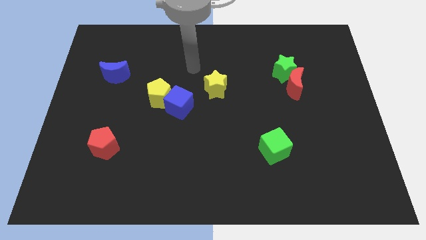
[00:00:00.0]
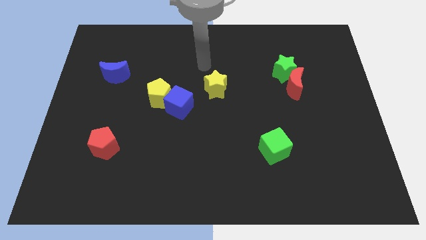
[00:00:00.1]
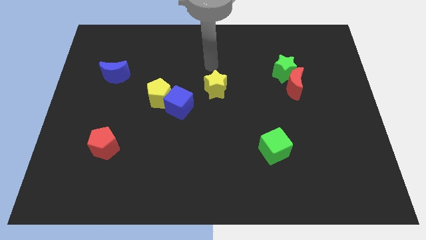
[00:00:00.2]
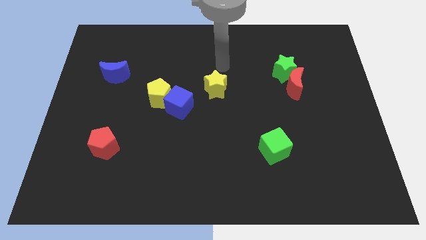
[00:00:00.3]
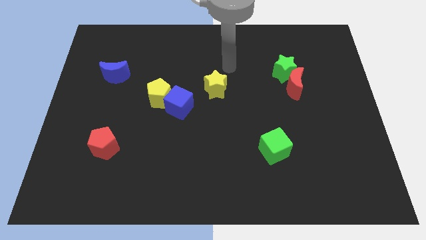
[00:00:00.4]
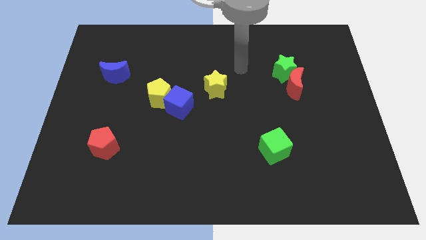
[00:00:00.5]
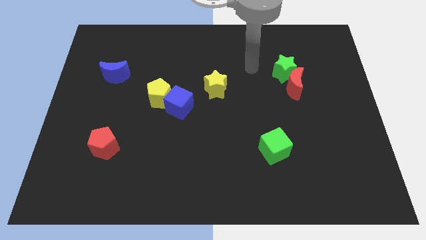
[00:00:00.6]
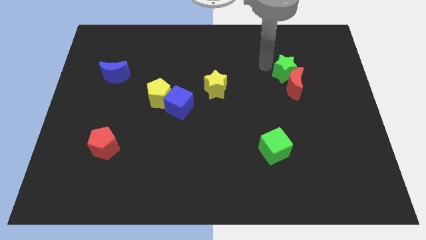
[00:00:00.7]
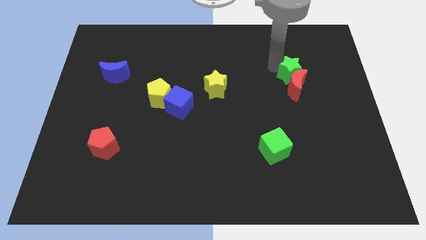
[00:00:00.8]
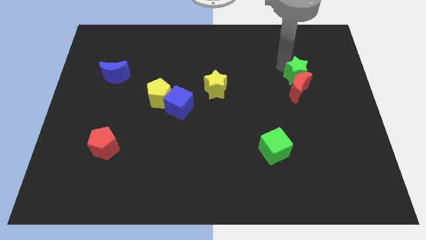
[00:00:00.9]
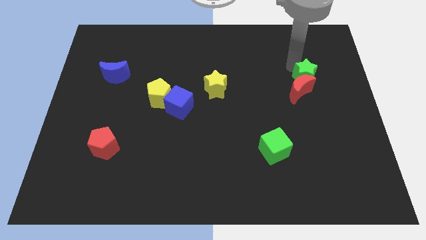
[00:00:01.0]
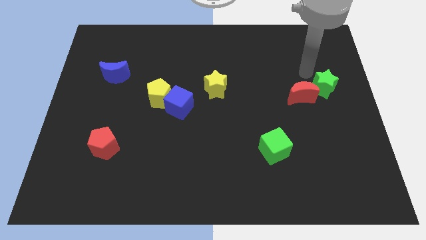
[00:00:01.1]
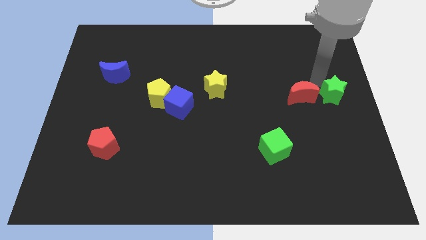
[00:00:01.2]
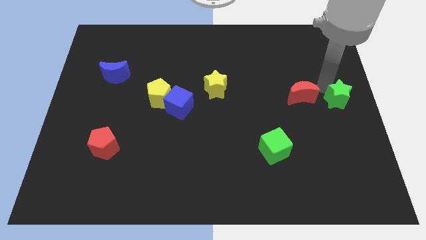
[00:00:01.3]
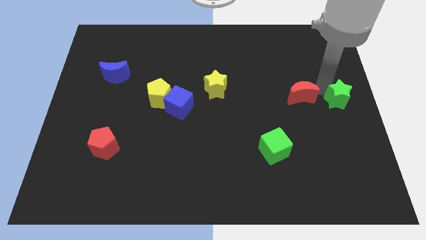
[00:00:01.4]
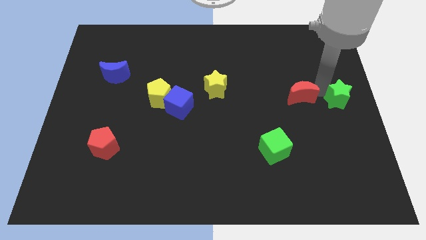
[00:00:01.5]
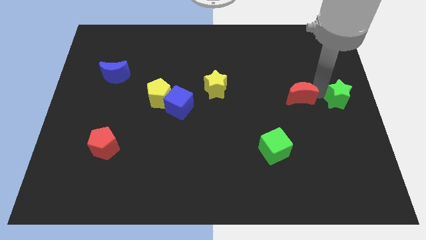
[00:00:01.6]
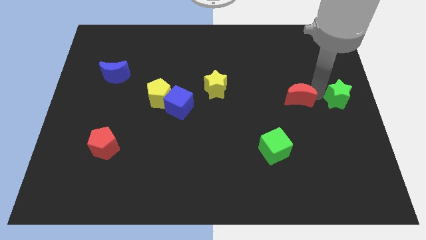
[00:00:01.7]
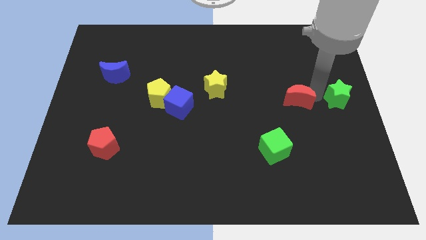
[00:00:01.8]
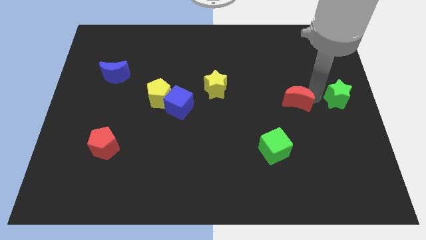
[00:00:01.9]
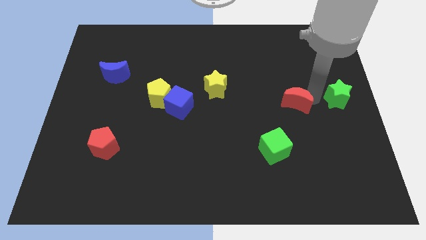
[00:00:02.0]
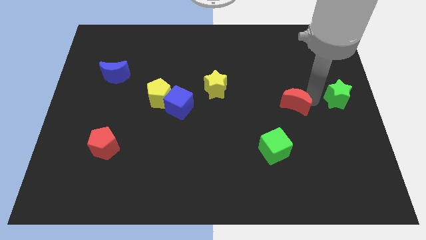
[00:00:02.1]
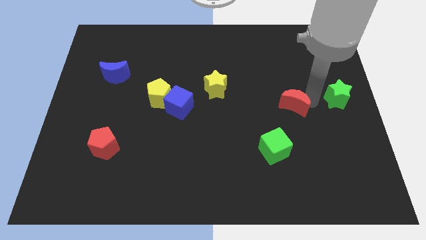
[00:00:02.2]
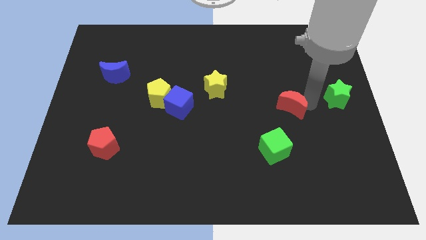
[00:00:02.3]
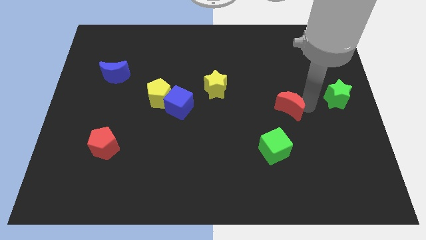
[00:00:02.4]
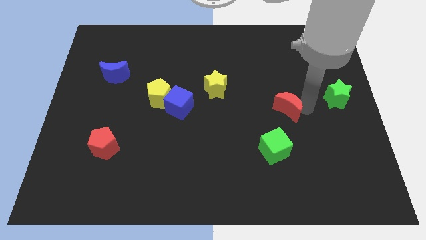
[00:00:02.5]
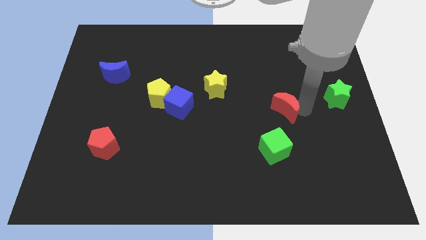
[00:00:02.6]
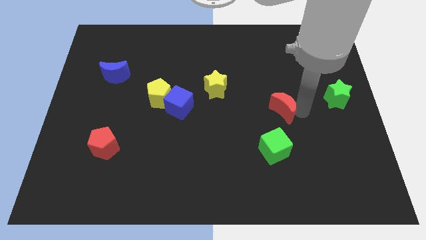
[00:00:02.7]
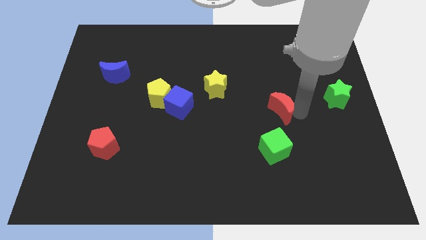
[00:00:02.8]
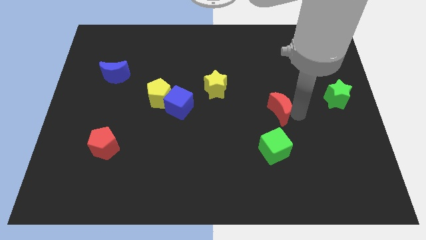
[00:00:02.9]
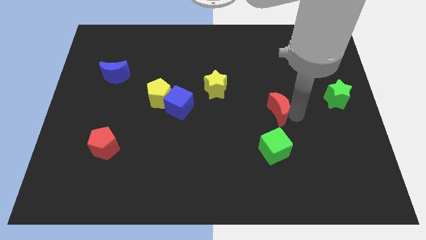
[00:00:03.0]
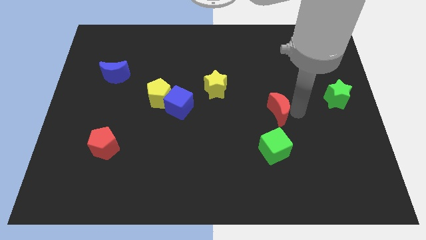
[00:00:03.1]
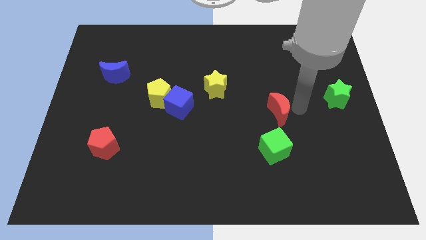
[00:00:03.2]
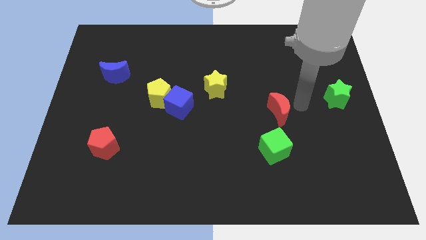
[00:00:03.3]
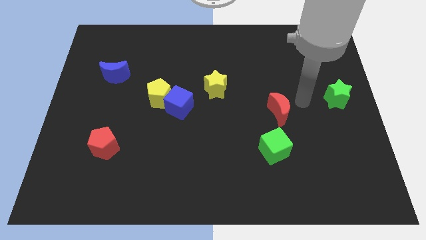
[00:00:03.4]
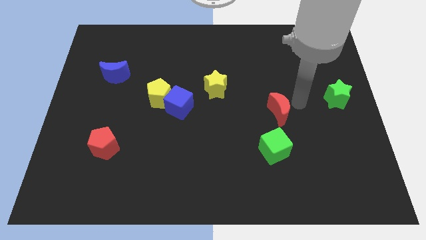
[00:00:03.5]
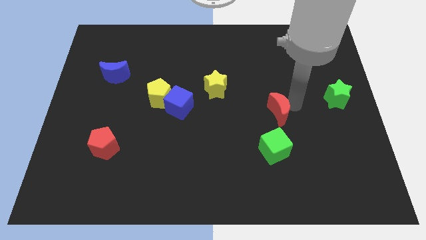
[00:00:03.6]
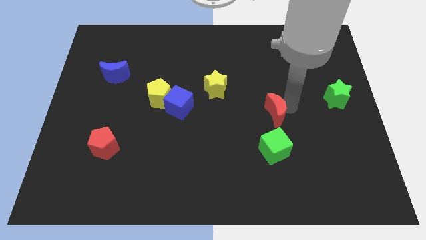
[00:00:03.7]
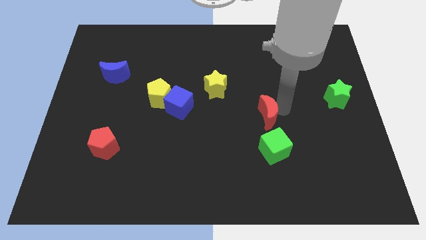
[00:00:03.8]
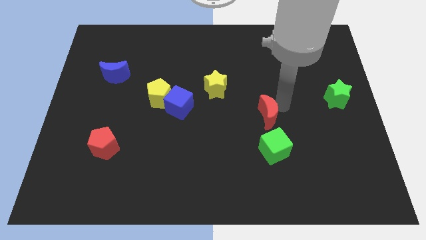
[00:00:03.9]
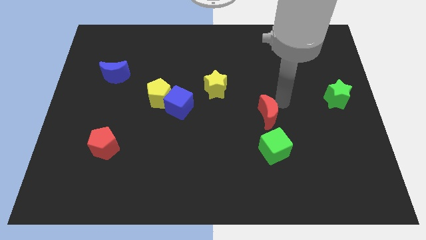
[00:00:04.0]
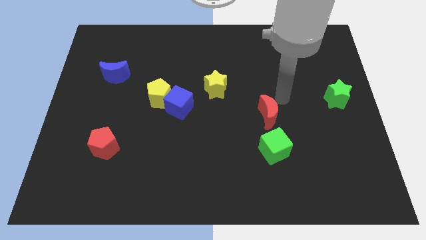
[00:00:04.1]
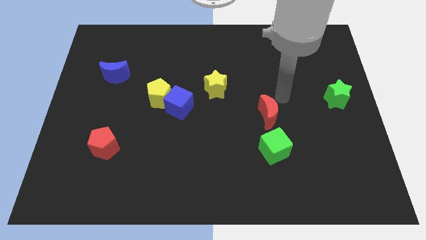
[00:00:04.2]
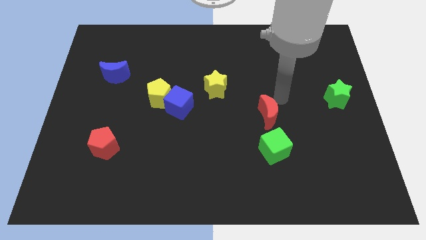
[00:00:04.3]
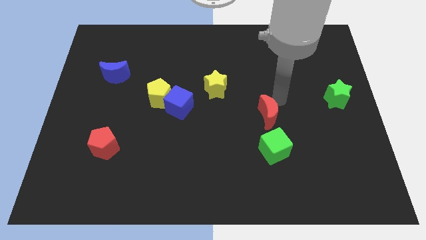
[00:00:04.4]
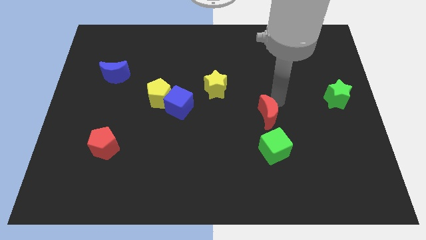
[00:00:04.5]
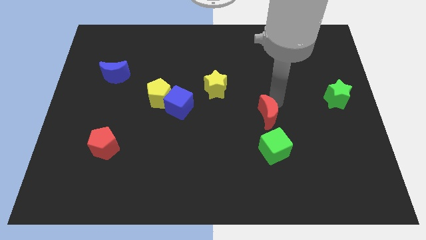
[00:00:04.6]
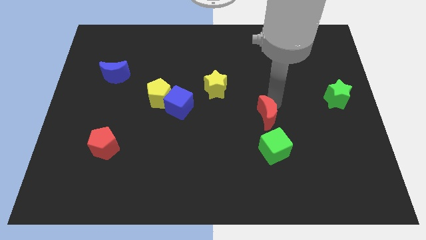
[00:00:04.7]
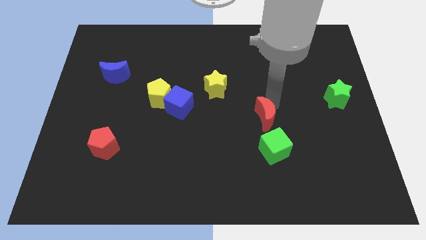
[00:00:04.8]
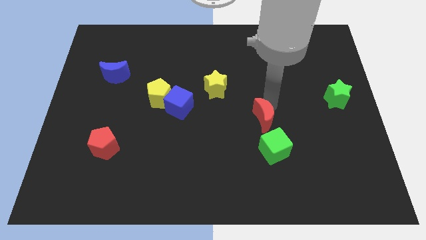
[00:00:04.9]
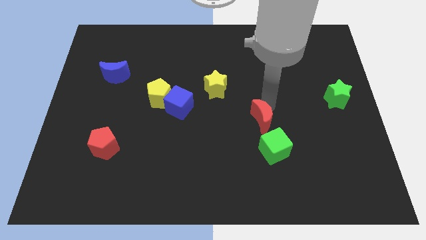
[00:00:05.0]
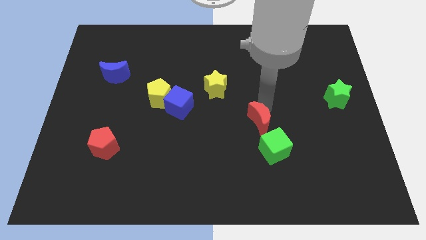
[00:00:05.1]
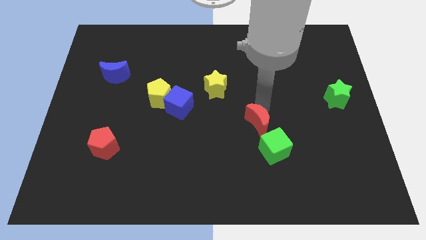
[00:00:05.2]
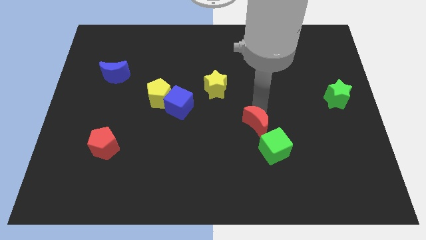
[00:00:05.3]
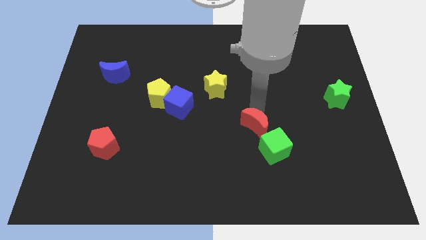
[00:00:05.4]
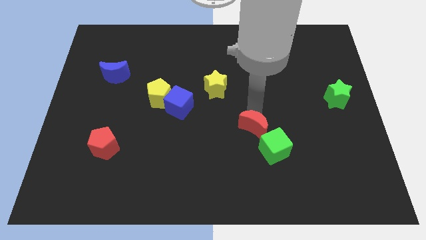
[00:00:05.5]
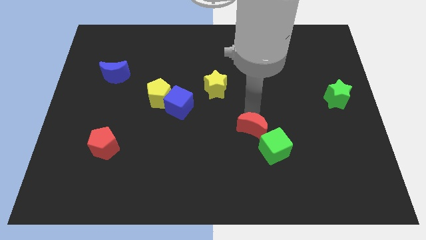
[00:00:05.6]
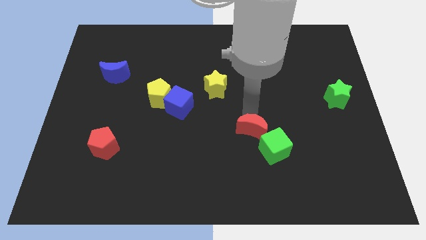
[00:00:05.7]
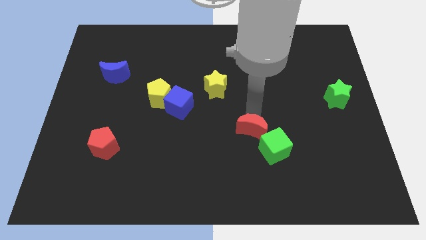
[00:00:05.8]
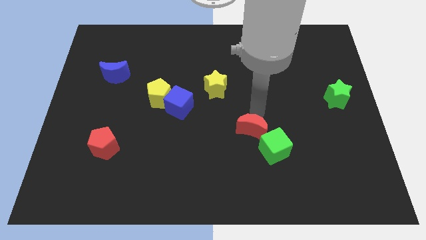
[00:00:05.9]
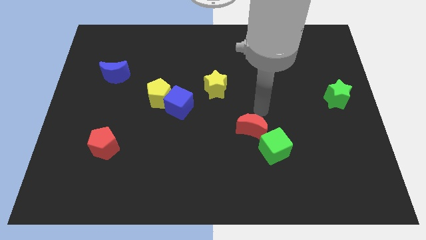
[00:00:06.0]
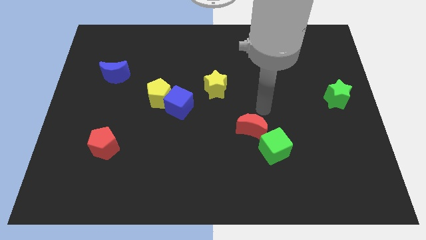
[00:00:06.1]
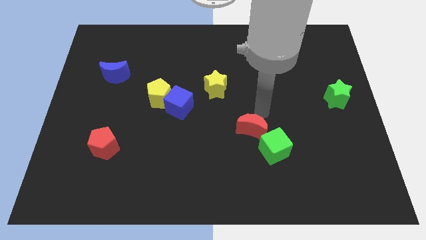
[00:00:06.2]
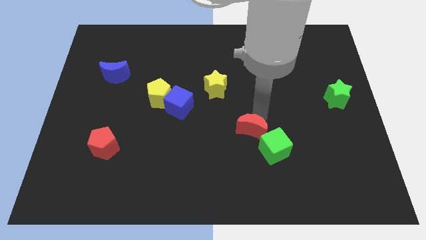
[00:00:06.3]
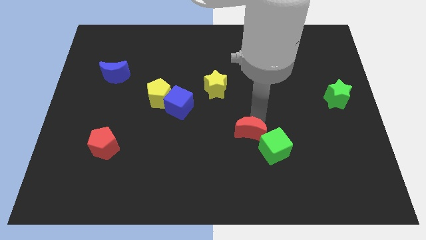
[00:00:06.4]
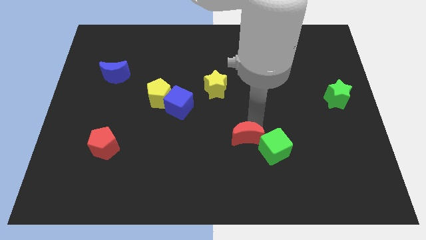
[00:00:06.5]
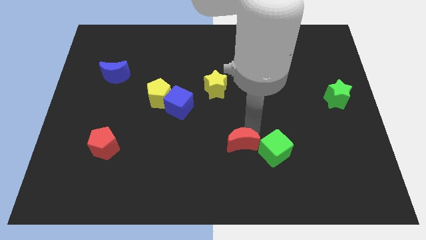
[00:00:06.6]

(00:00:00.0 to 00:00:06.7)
move the red moon downwards and then to the left

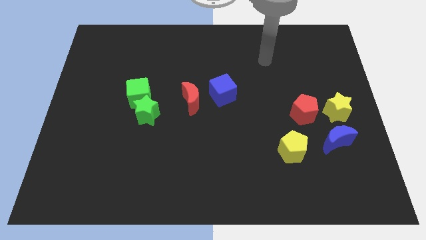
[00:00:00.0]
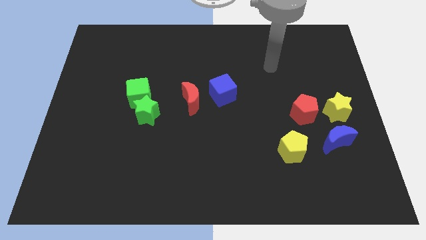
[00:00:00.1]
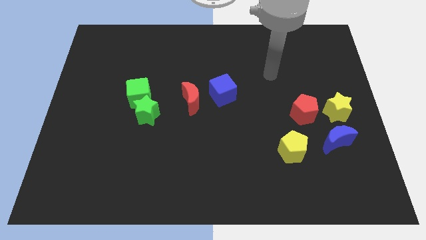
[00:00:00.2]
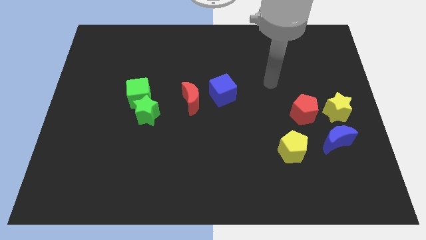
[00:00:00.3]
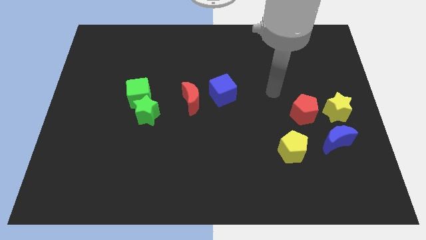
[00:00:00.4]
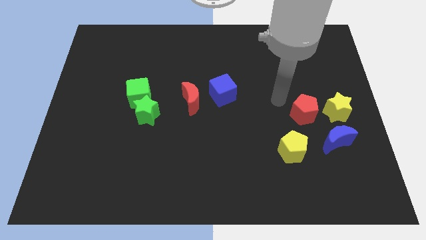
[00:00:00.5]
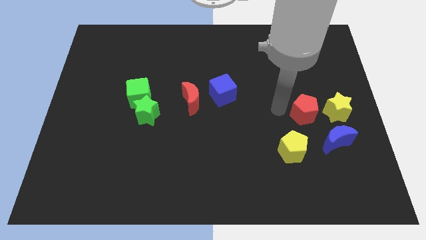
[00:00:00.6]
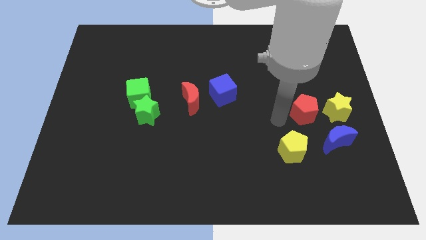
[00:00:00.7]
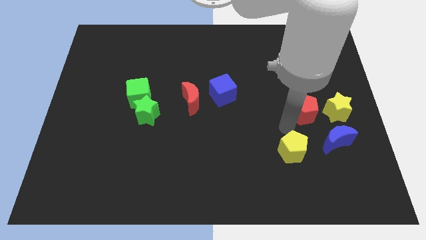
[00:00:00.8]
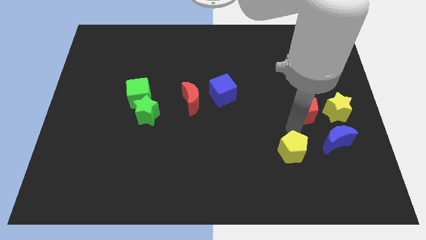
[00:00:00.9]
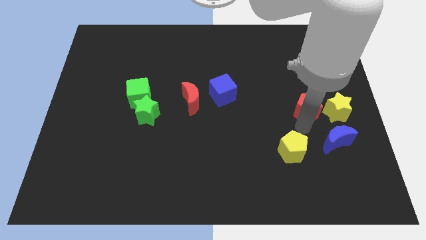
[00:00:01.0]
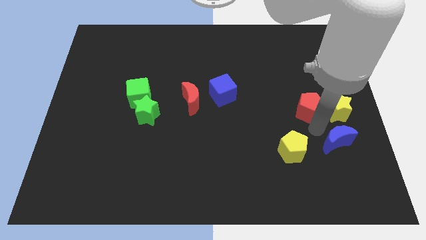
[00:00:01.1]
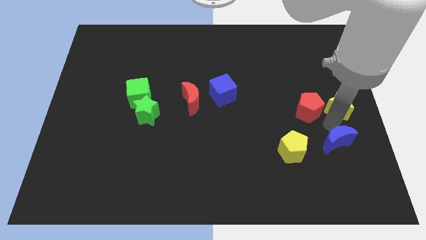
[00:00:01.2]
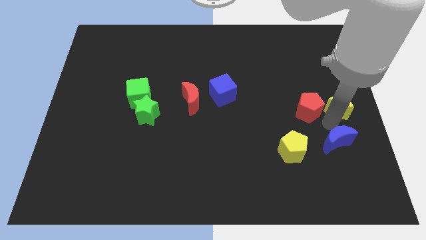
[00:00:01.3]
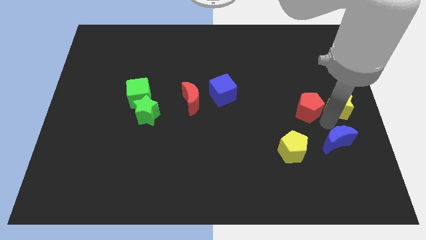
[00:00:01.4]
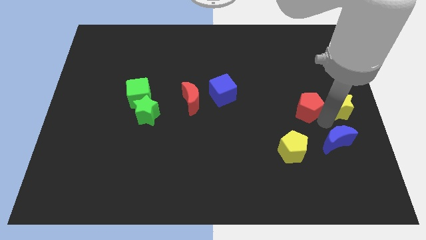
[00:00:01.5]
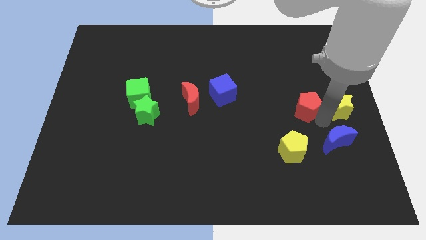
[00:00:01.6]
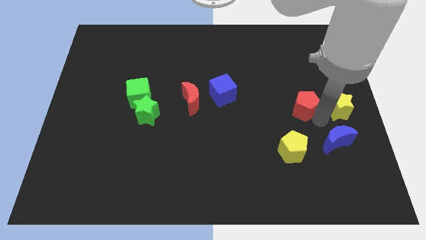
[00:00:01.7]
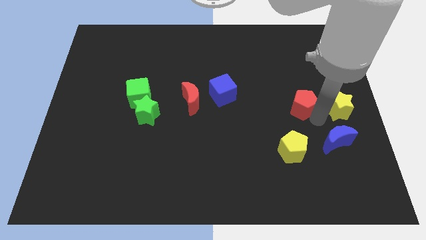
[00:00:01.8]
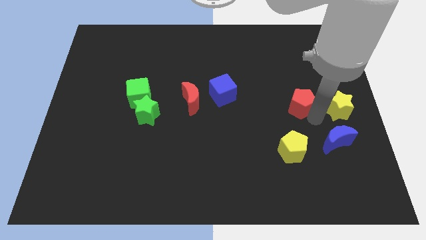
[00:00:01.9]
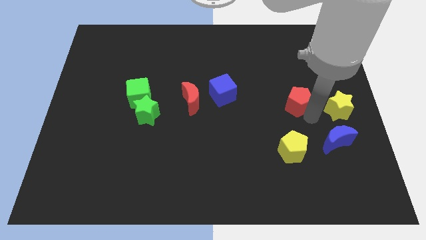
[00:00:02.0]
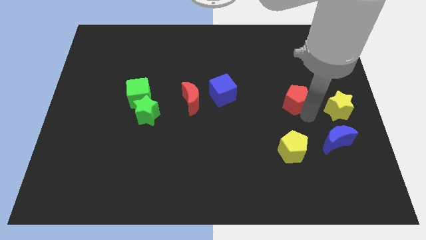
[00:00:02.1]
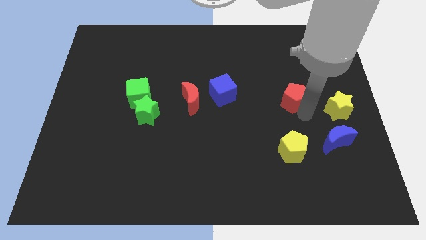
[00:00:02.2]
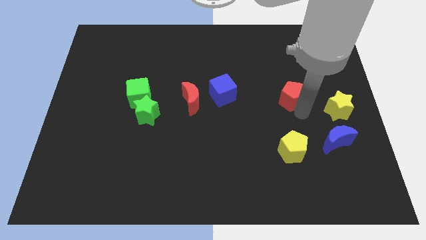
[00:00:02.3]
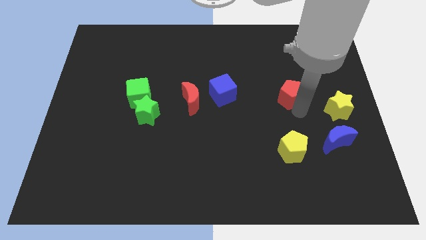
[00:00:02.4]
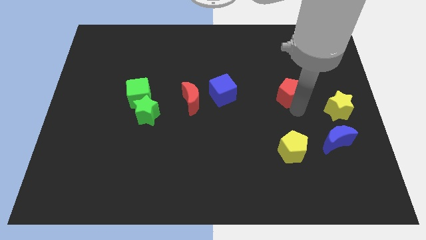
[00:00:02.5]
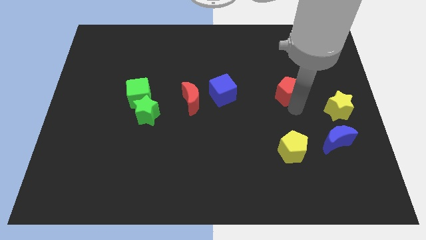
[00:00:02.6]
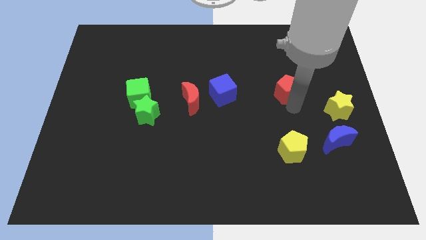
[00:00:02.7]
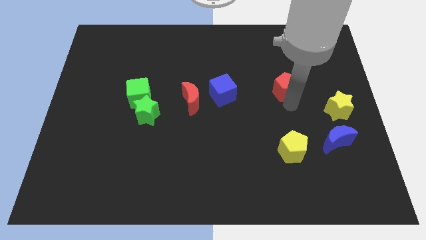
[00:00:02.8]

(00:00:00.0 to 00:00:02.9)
slightly slide the red pentagon diagonally up and left
